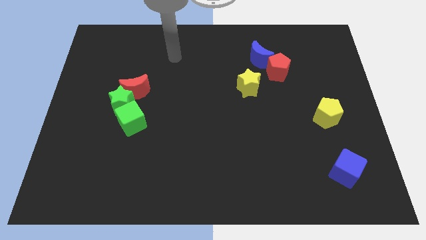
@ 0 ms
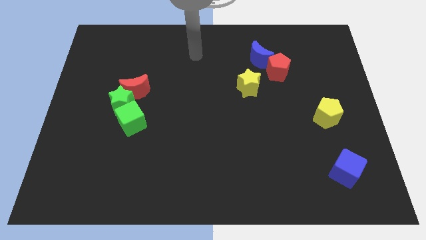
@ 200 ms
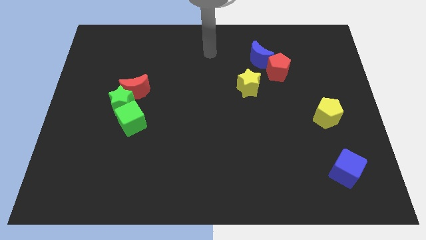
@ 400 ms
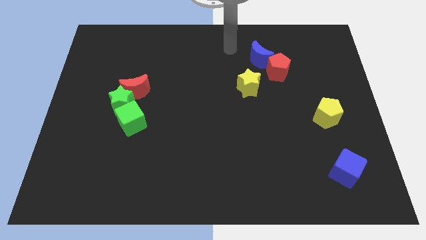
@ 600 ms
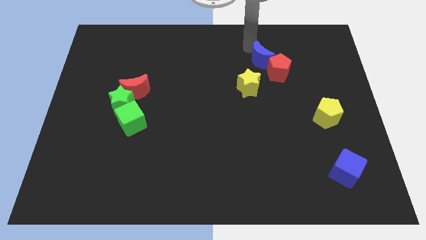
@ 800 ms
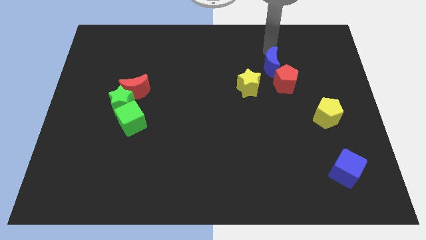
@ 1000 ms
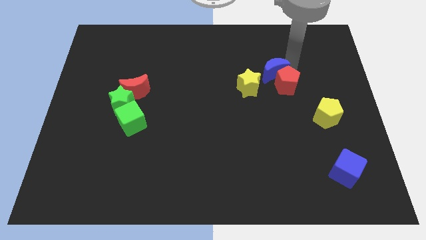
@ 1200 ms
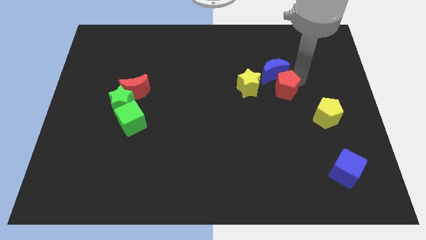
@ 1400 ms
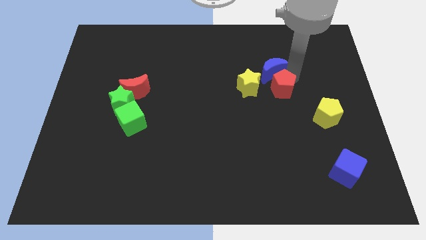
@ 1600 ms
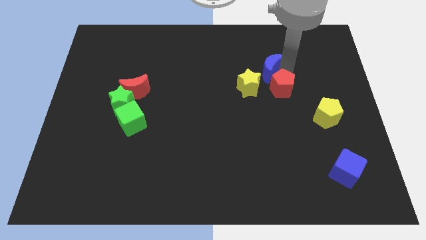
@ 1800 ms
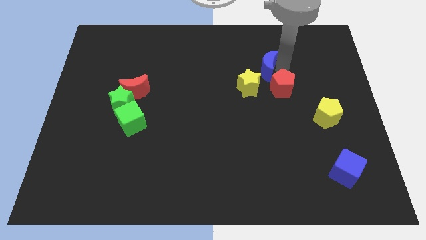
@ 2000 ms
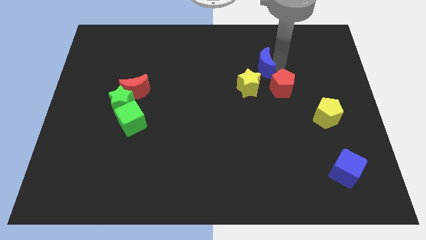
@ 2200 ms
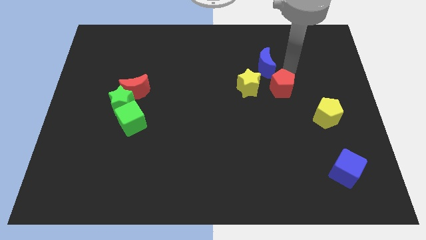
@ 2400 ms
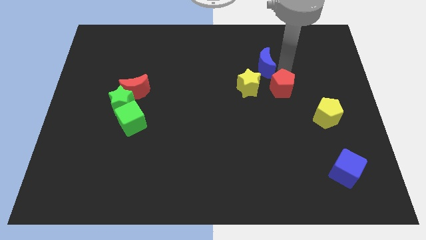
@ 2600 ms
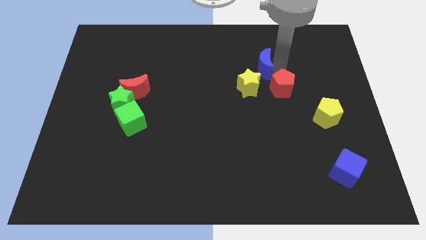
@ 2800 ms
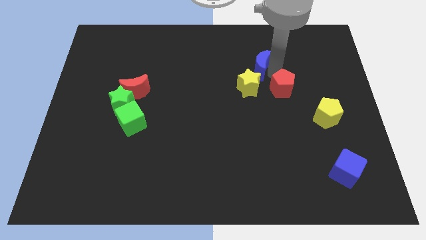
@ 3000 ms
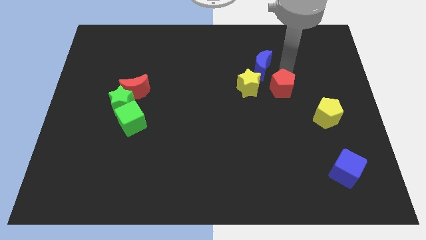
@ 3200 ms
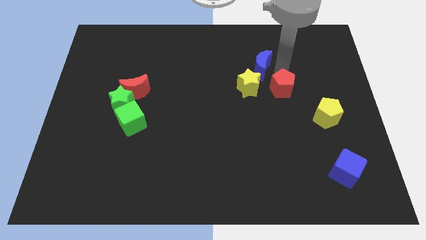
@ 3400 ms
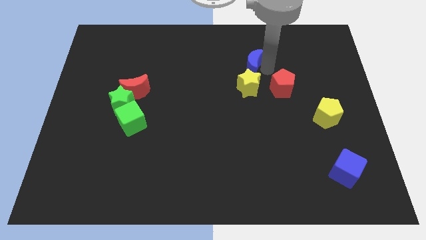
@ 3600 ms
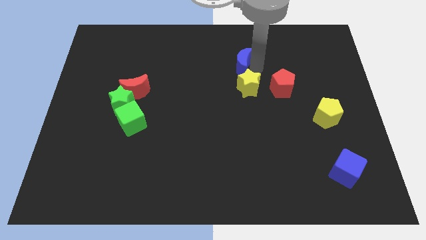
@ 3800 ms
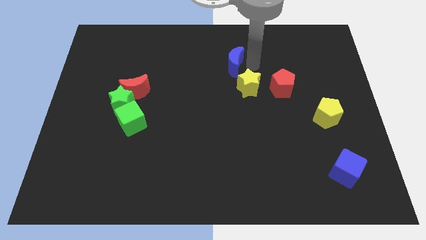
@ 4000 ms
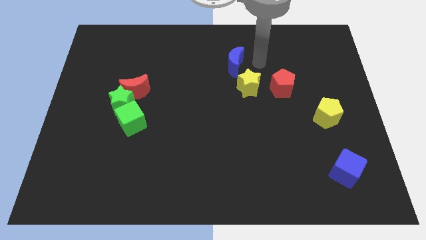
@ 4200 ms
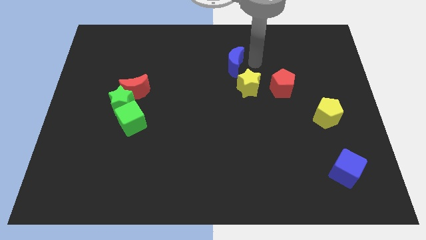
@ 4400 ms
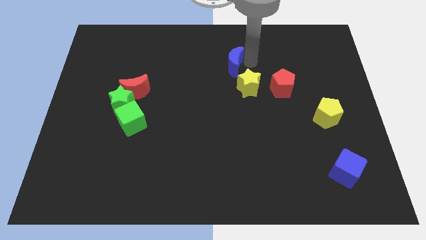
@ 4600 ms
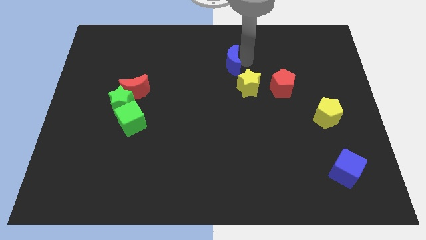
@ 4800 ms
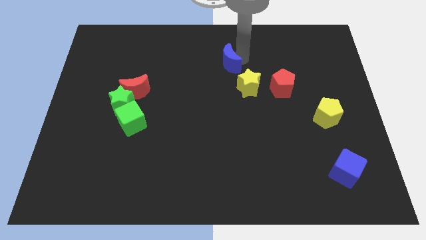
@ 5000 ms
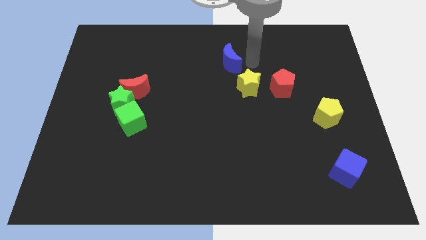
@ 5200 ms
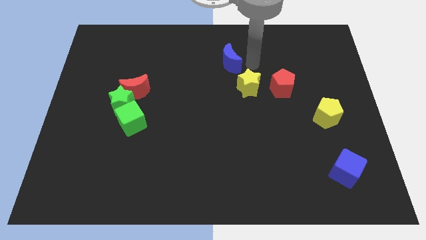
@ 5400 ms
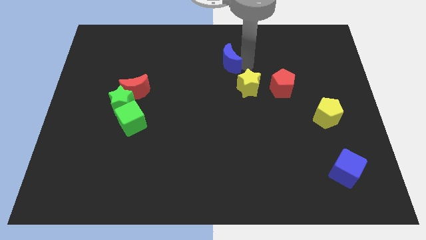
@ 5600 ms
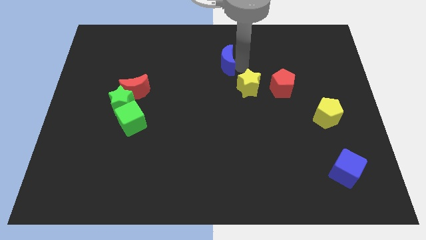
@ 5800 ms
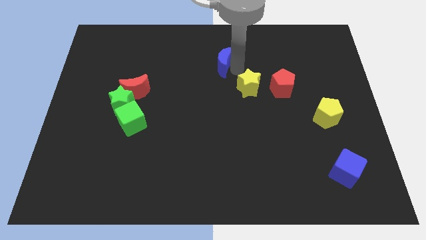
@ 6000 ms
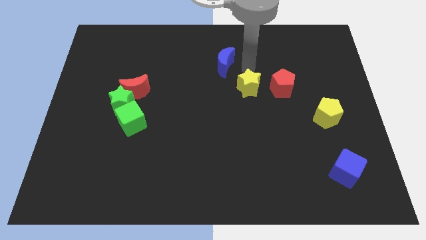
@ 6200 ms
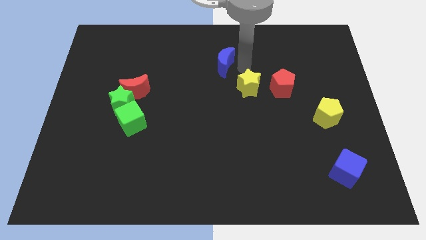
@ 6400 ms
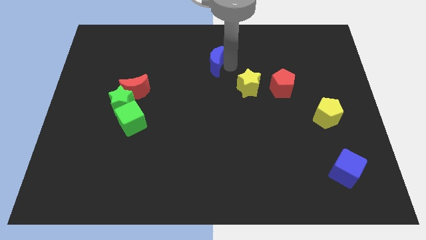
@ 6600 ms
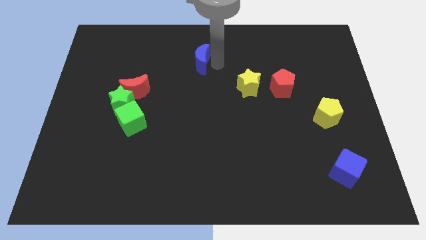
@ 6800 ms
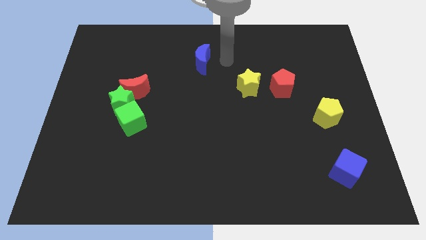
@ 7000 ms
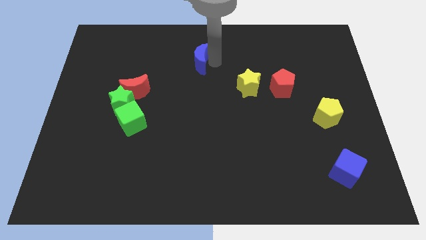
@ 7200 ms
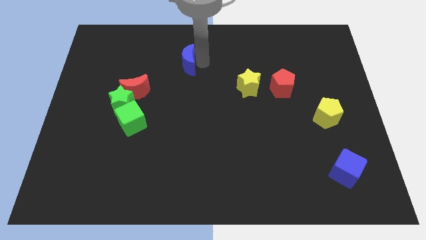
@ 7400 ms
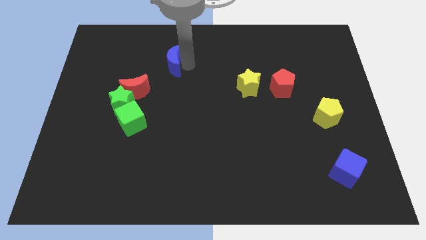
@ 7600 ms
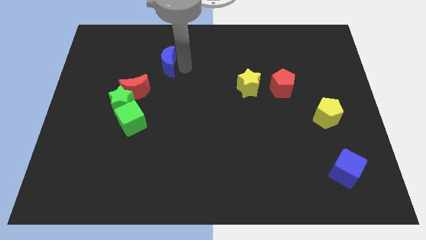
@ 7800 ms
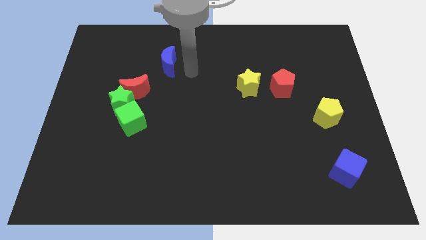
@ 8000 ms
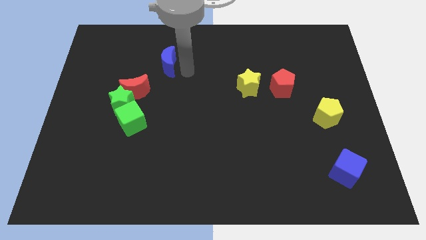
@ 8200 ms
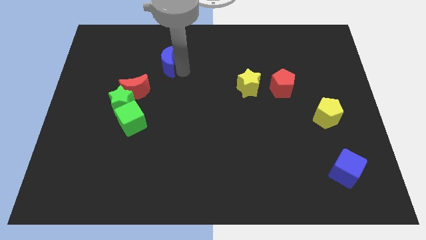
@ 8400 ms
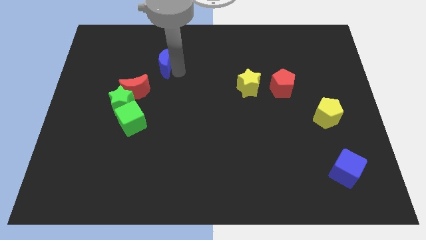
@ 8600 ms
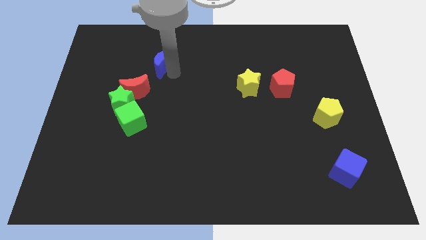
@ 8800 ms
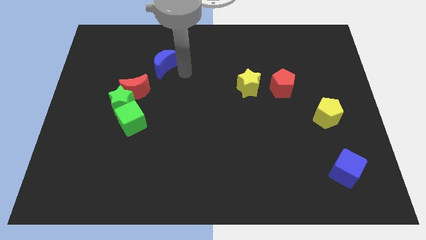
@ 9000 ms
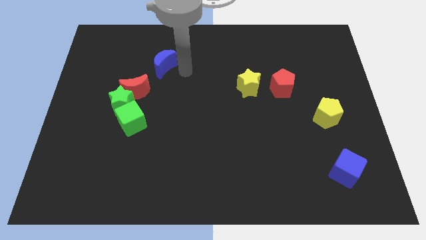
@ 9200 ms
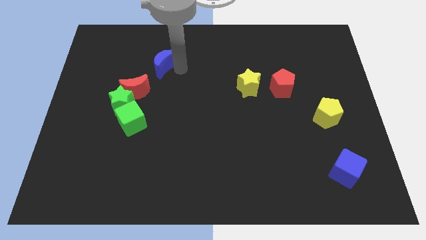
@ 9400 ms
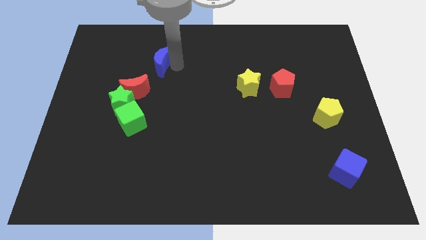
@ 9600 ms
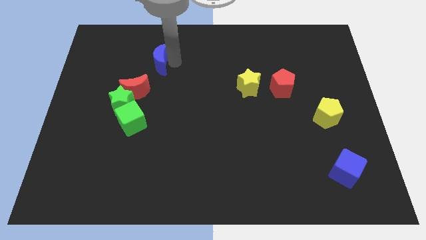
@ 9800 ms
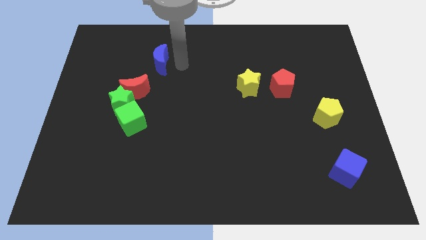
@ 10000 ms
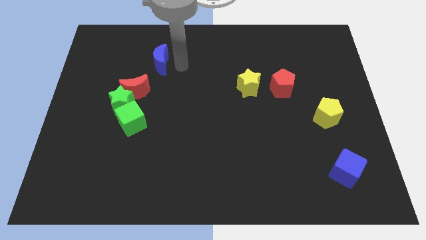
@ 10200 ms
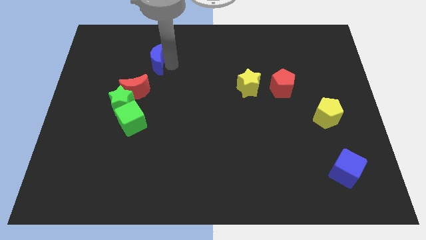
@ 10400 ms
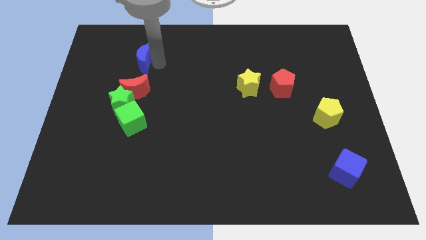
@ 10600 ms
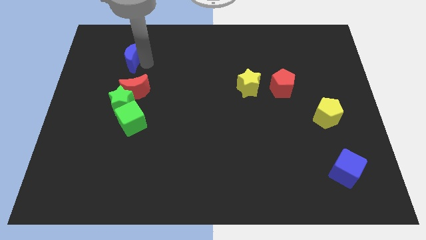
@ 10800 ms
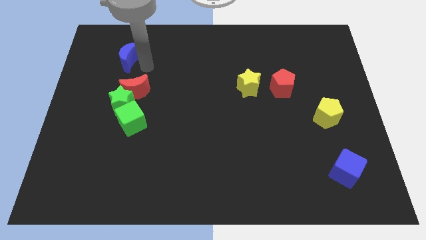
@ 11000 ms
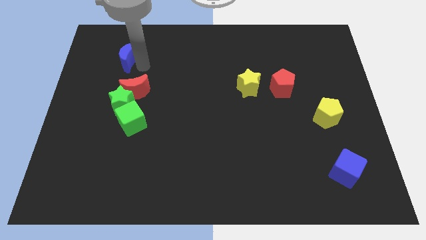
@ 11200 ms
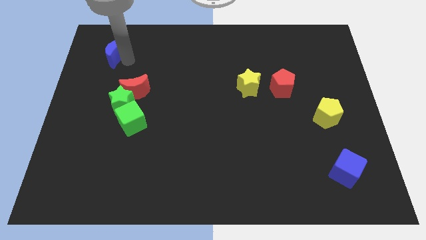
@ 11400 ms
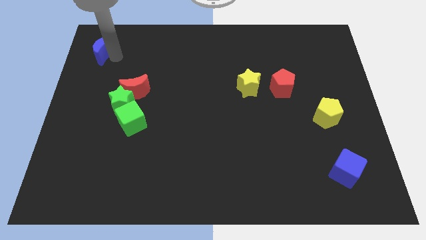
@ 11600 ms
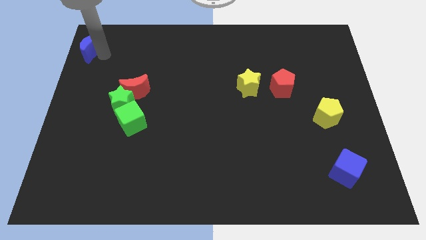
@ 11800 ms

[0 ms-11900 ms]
slide the blue moon to the top left
